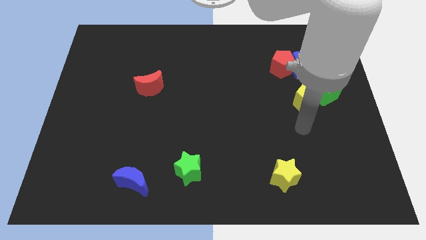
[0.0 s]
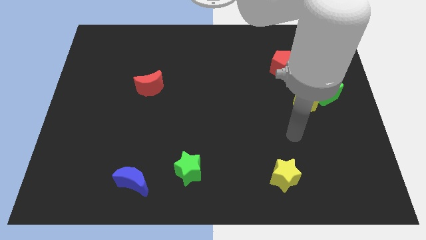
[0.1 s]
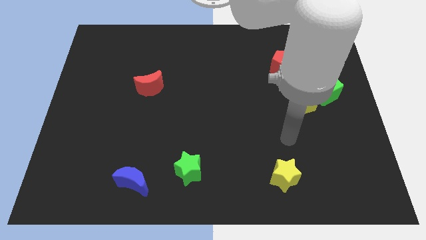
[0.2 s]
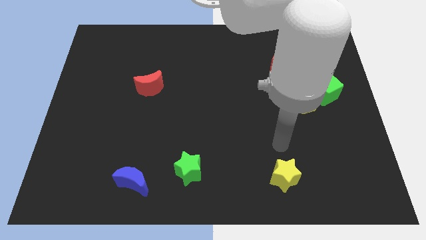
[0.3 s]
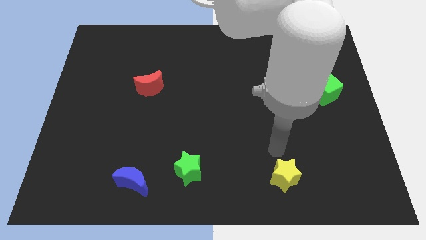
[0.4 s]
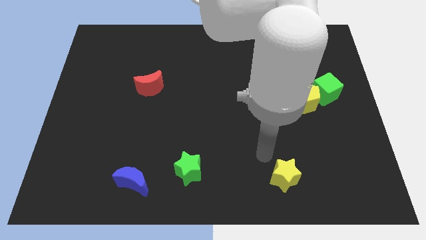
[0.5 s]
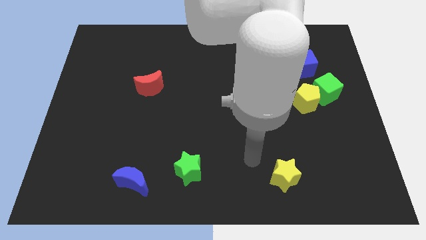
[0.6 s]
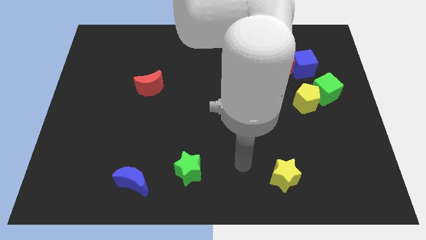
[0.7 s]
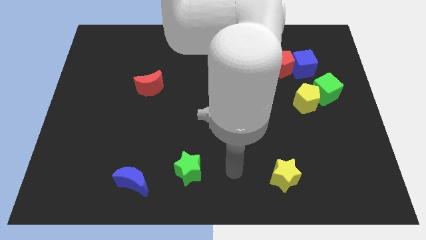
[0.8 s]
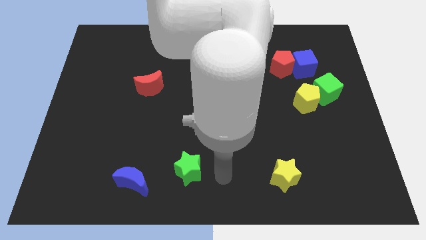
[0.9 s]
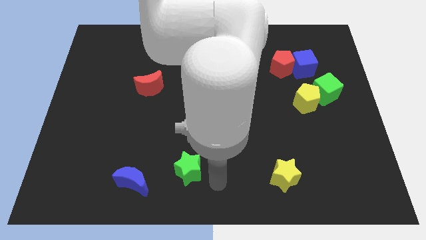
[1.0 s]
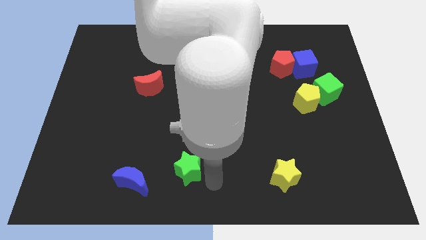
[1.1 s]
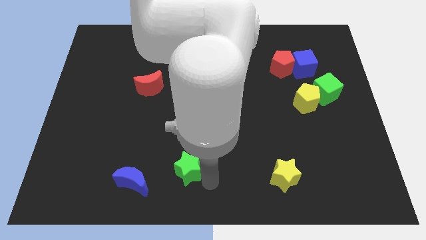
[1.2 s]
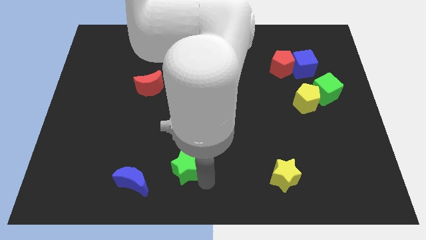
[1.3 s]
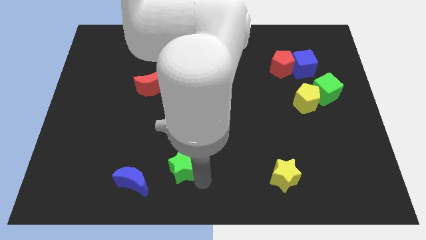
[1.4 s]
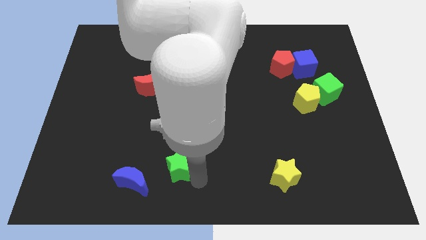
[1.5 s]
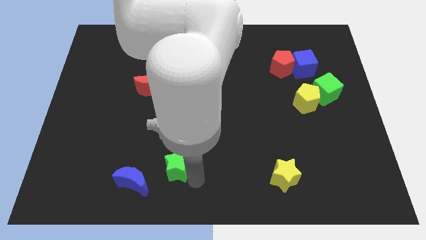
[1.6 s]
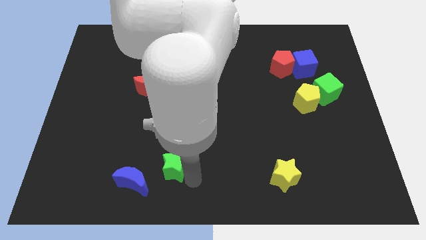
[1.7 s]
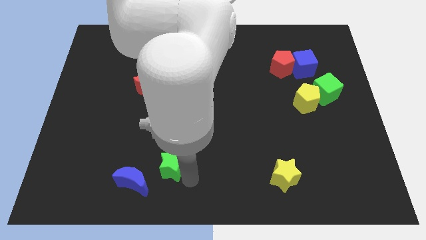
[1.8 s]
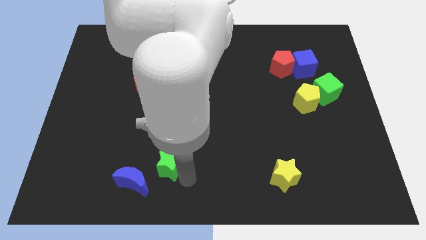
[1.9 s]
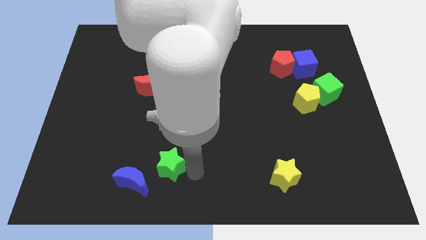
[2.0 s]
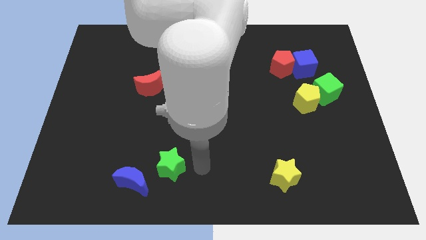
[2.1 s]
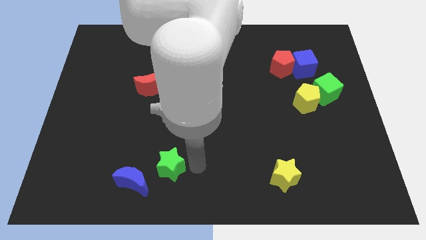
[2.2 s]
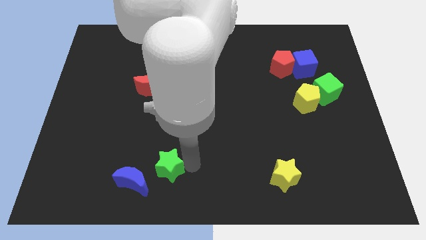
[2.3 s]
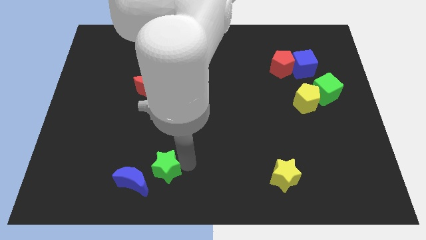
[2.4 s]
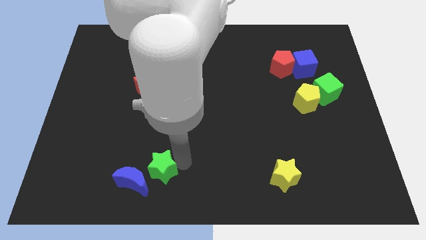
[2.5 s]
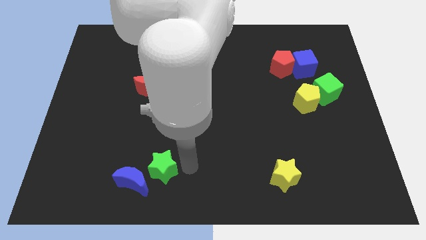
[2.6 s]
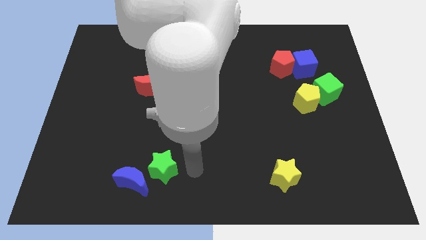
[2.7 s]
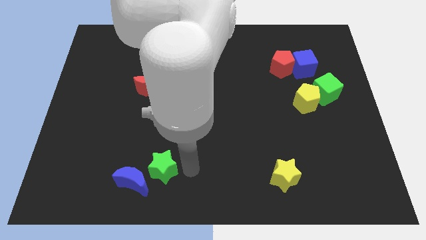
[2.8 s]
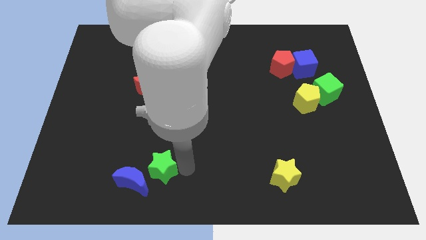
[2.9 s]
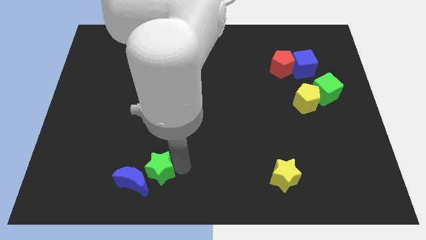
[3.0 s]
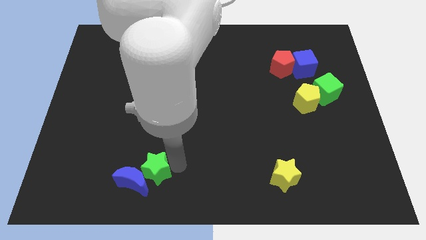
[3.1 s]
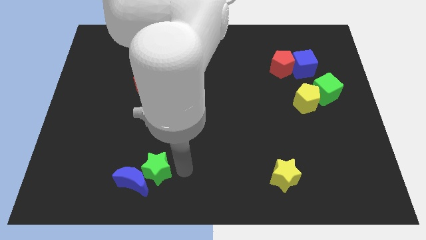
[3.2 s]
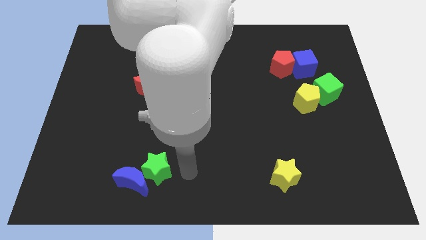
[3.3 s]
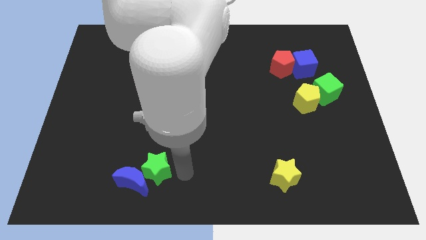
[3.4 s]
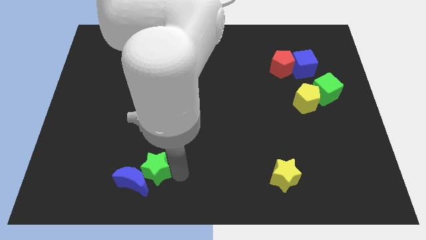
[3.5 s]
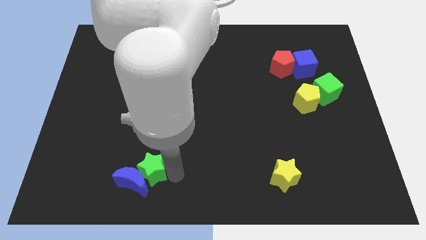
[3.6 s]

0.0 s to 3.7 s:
push the green star to the left somewhat

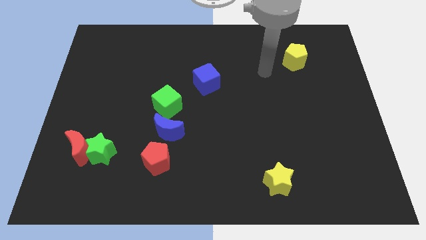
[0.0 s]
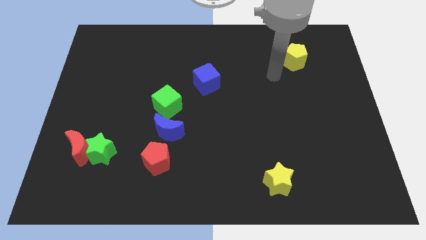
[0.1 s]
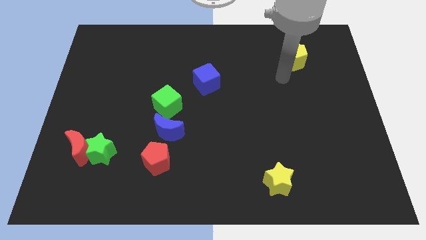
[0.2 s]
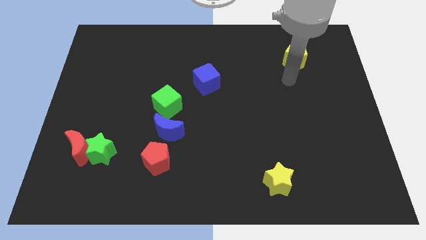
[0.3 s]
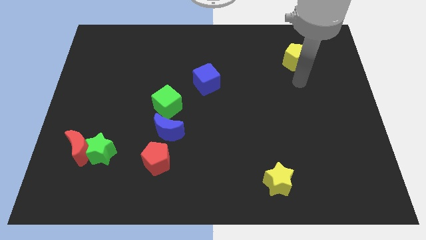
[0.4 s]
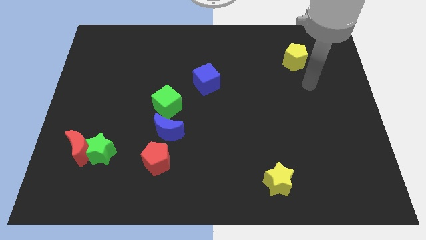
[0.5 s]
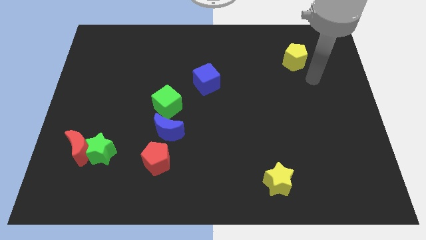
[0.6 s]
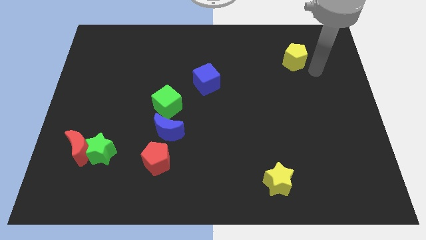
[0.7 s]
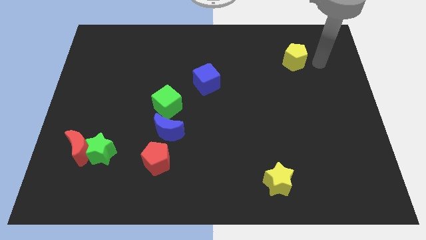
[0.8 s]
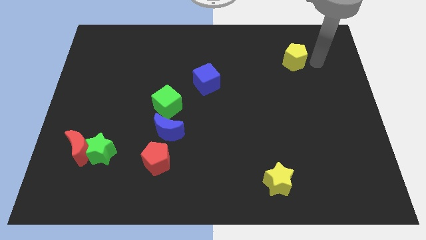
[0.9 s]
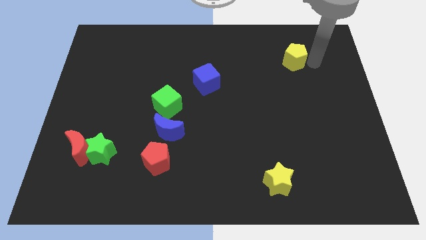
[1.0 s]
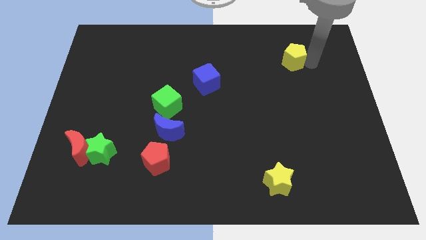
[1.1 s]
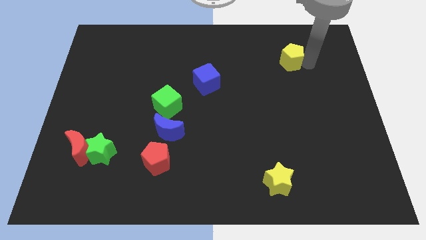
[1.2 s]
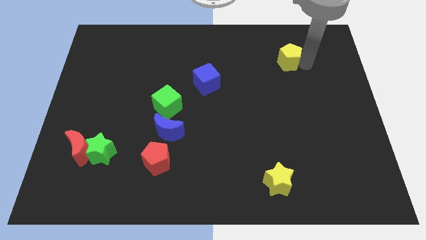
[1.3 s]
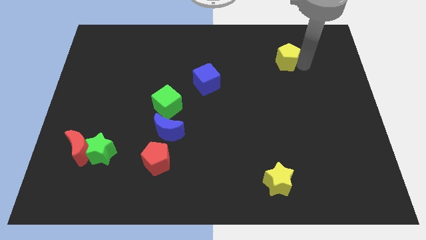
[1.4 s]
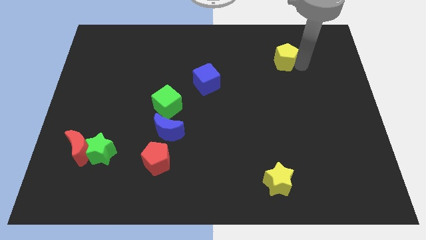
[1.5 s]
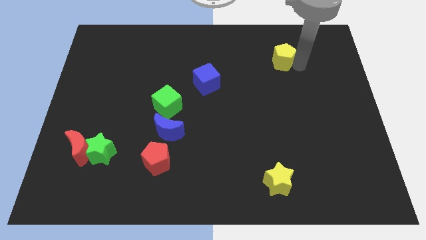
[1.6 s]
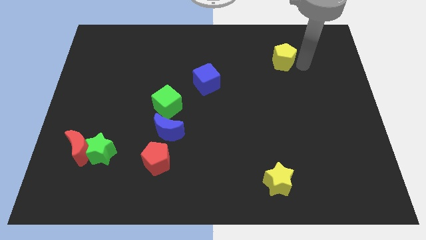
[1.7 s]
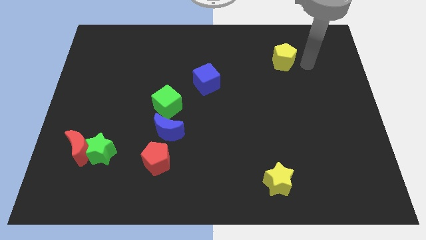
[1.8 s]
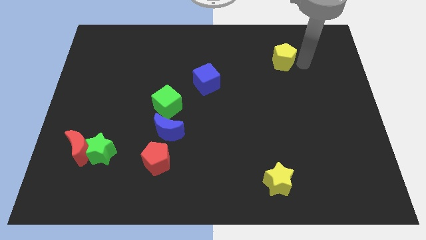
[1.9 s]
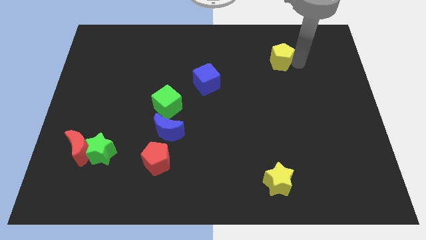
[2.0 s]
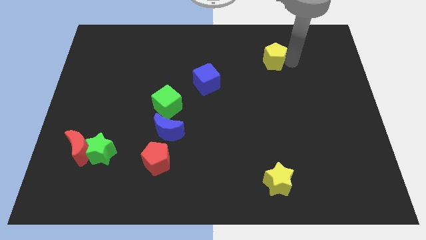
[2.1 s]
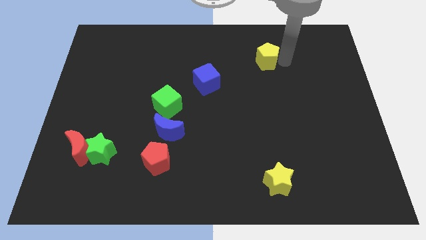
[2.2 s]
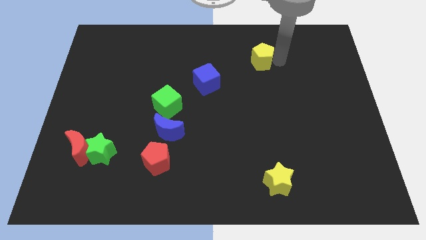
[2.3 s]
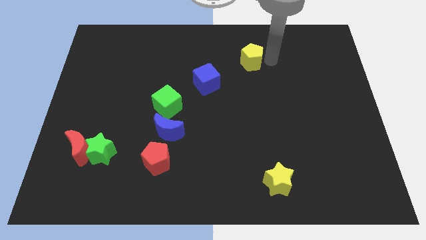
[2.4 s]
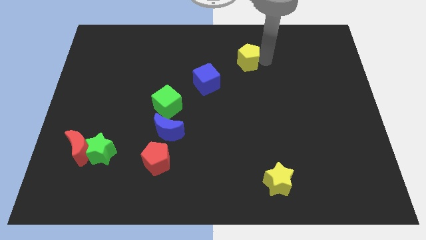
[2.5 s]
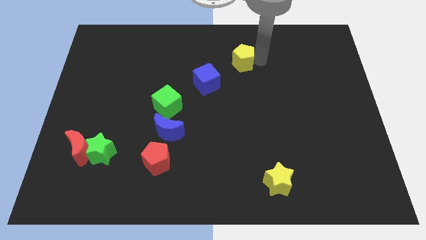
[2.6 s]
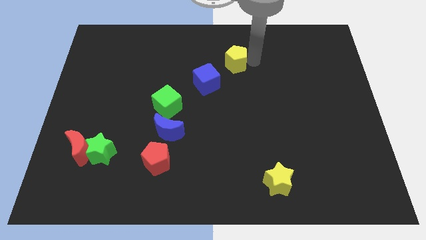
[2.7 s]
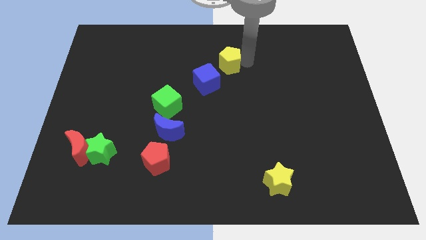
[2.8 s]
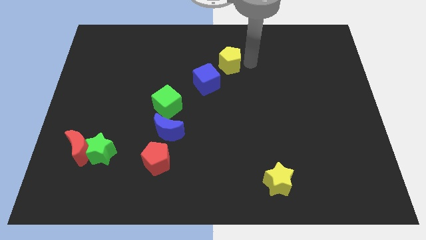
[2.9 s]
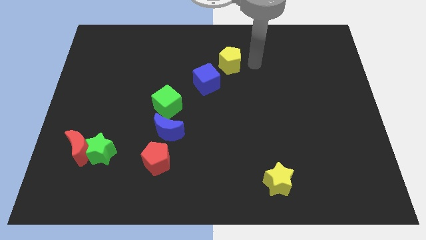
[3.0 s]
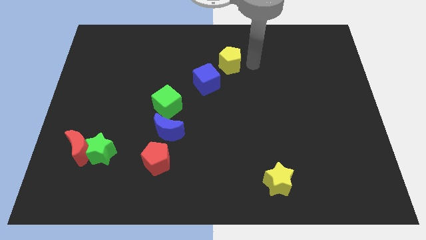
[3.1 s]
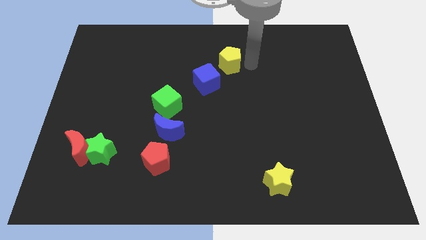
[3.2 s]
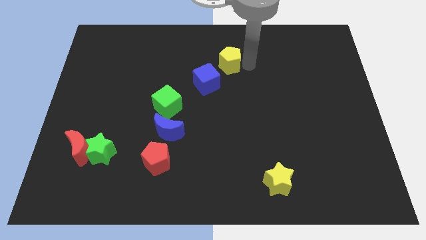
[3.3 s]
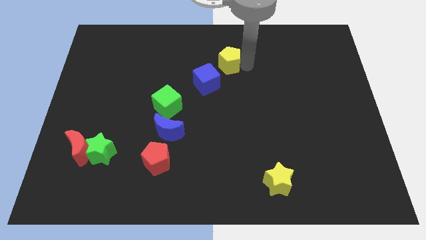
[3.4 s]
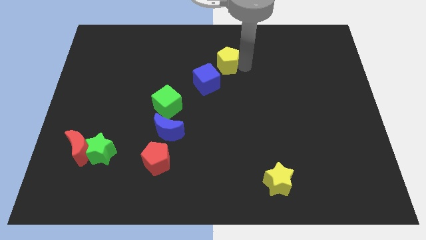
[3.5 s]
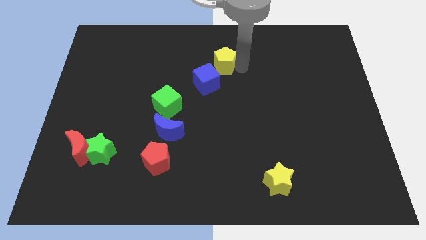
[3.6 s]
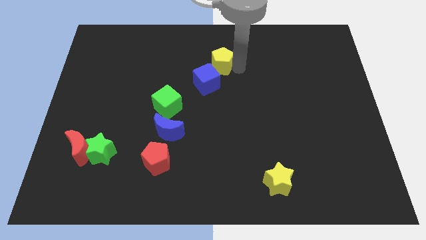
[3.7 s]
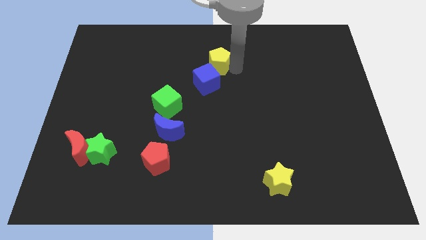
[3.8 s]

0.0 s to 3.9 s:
move the yellow pentagon to the left

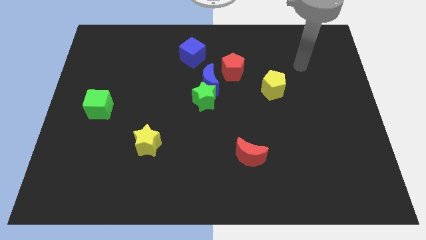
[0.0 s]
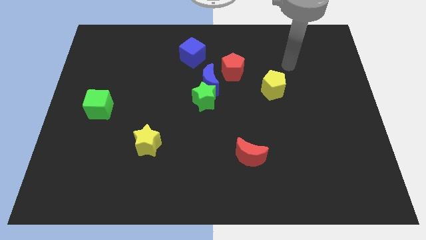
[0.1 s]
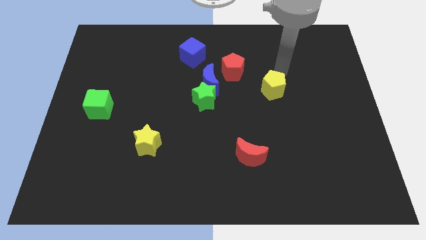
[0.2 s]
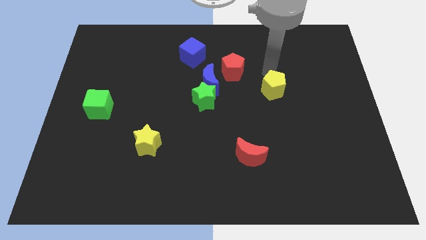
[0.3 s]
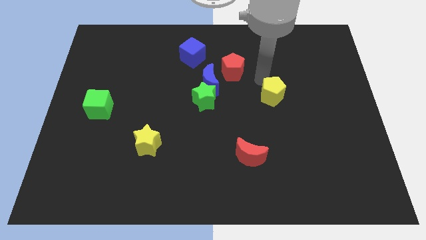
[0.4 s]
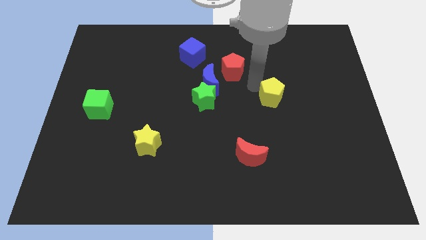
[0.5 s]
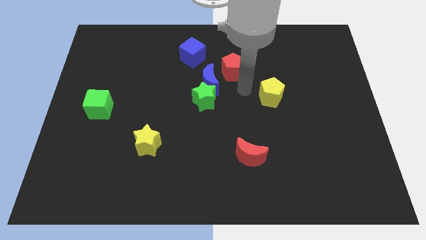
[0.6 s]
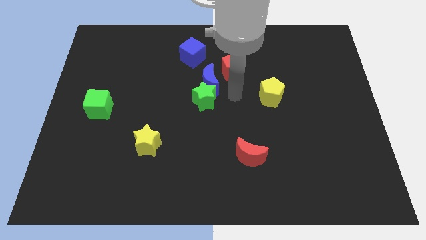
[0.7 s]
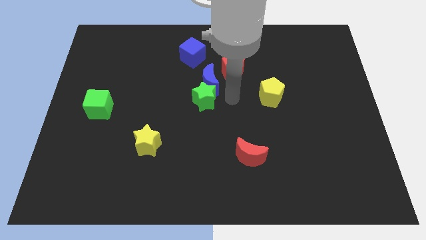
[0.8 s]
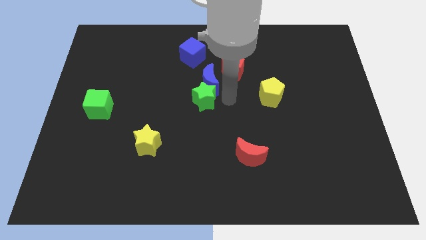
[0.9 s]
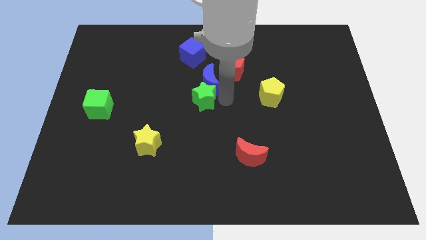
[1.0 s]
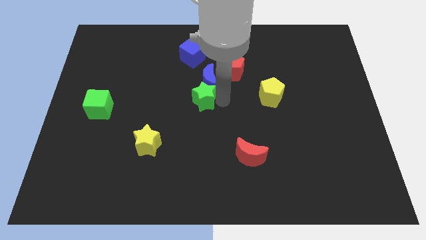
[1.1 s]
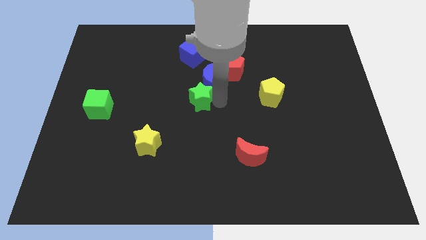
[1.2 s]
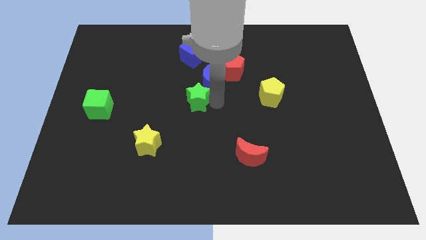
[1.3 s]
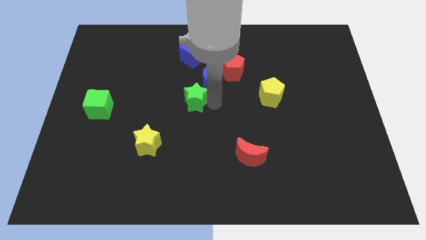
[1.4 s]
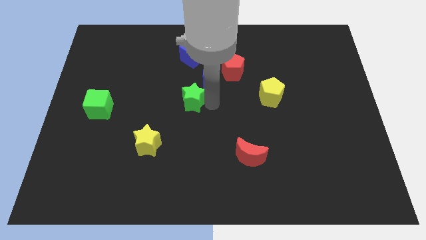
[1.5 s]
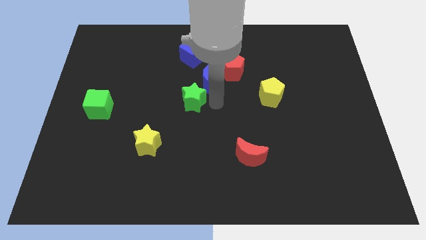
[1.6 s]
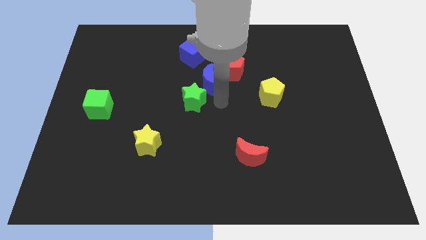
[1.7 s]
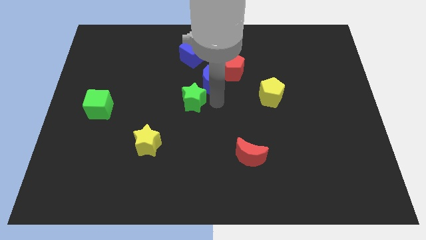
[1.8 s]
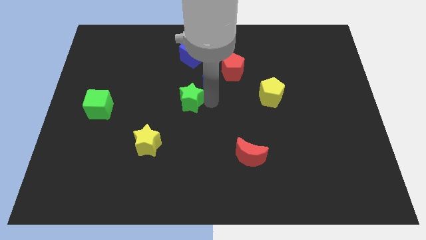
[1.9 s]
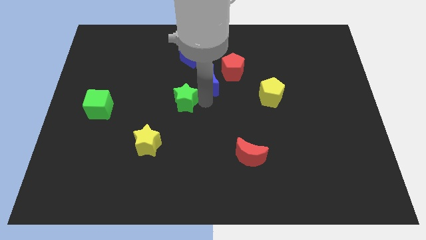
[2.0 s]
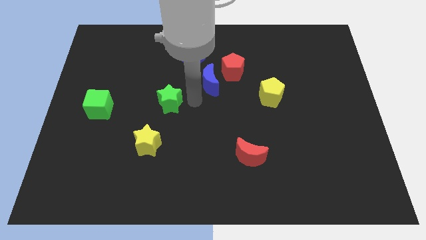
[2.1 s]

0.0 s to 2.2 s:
move the green star left a little bit
